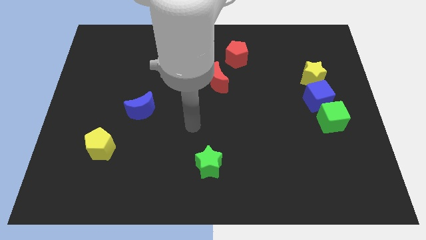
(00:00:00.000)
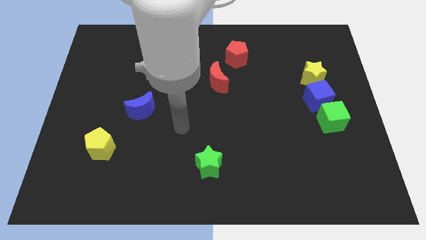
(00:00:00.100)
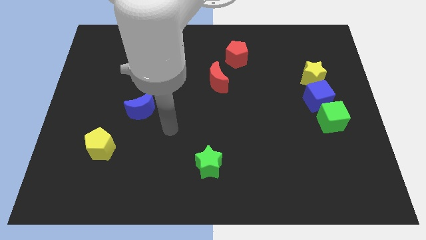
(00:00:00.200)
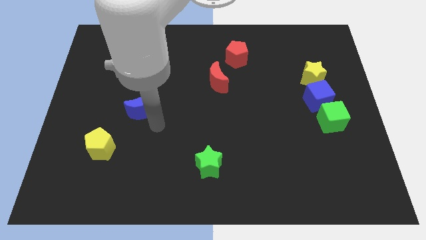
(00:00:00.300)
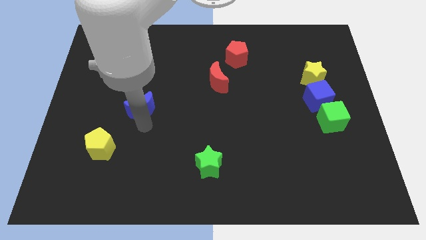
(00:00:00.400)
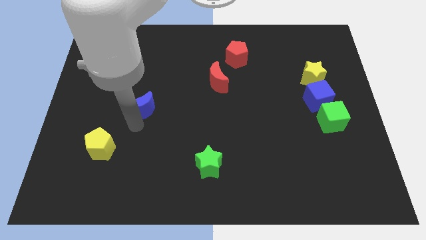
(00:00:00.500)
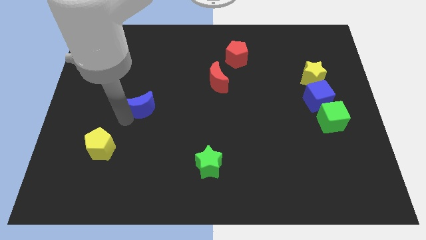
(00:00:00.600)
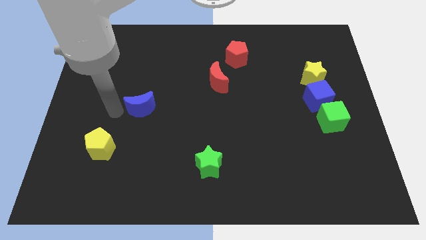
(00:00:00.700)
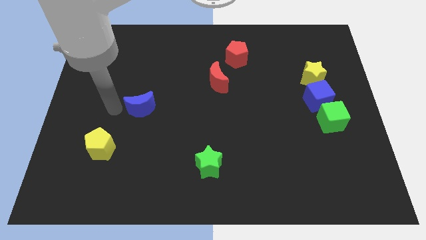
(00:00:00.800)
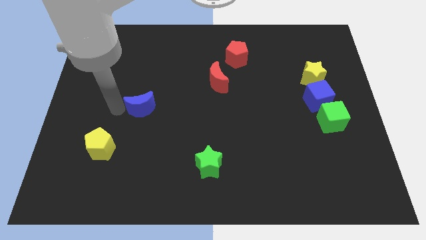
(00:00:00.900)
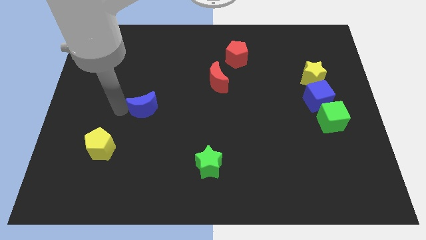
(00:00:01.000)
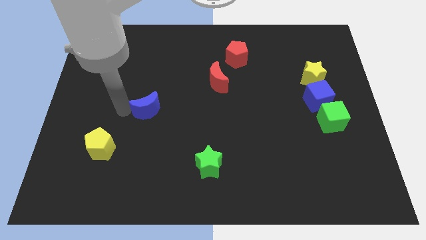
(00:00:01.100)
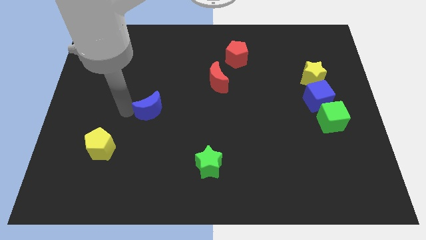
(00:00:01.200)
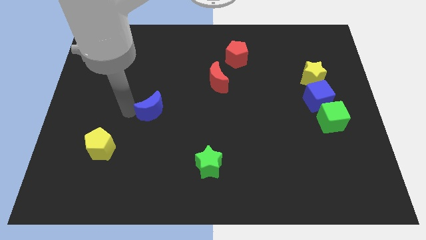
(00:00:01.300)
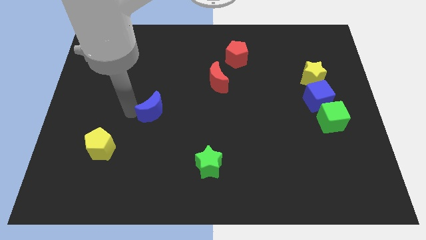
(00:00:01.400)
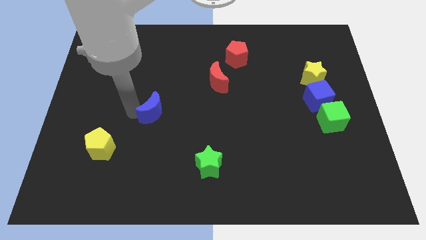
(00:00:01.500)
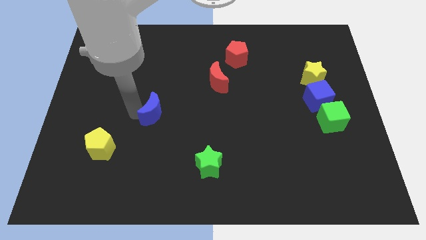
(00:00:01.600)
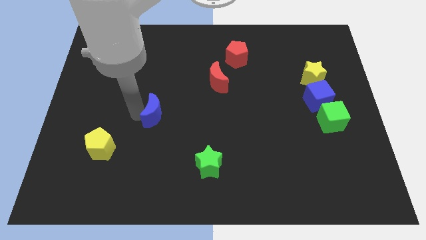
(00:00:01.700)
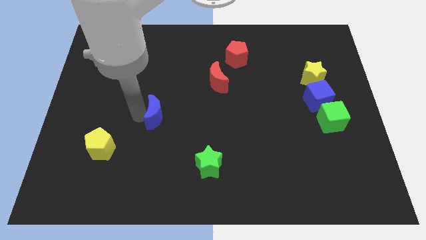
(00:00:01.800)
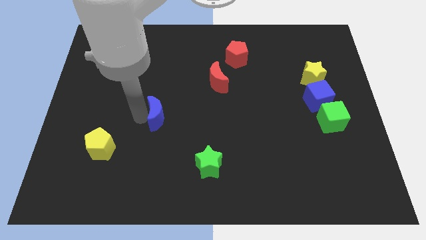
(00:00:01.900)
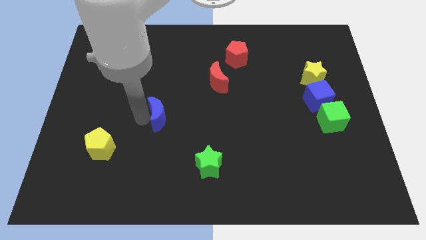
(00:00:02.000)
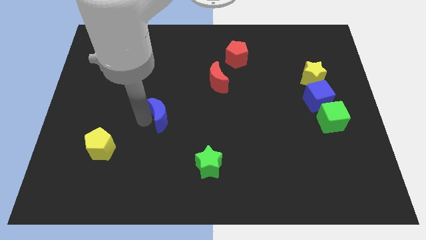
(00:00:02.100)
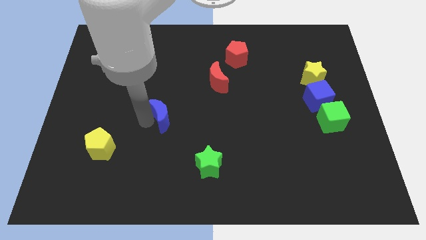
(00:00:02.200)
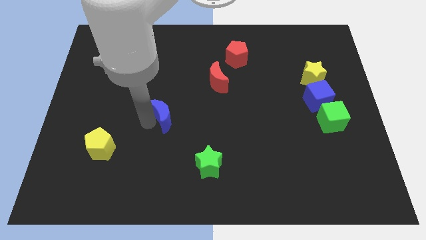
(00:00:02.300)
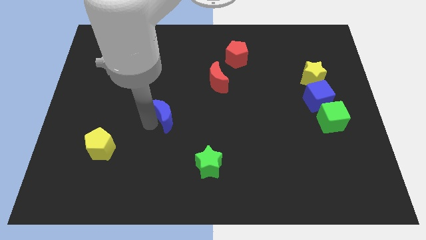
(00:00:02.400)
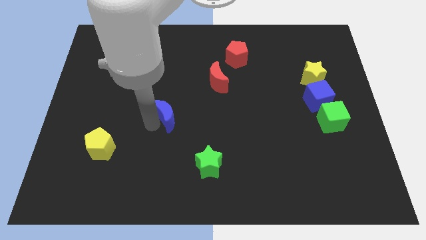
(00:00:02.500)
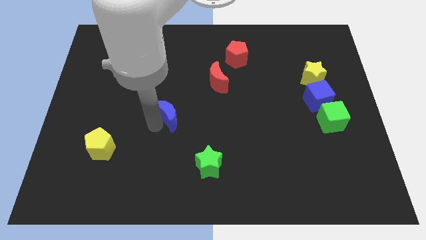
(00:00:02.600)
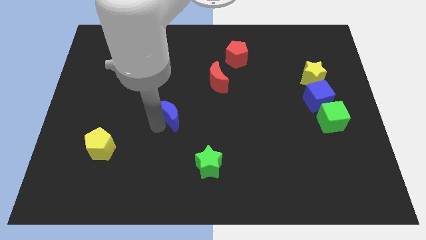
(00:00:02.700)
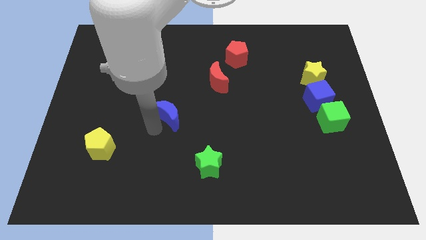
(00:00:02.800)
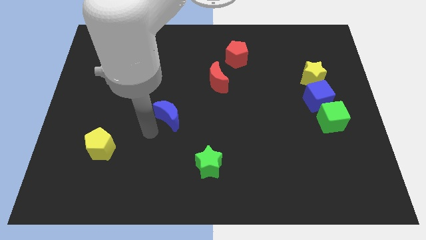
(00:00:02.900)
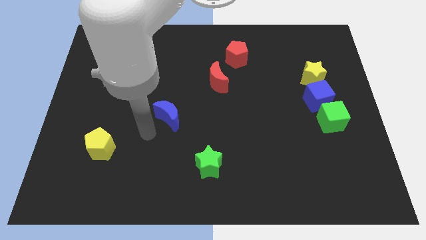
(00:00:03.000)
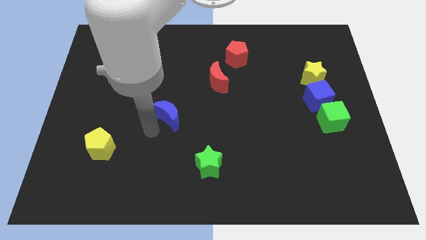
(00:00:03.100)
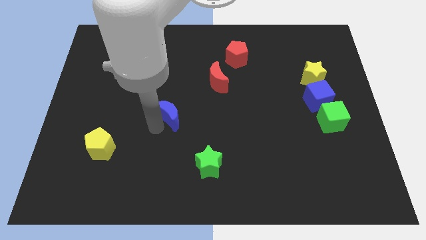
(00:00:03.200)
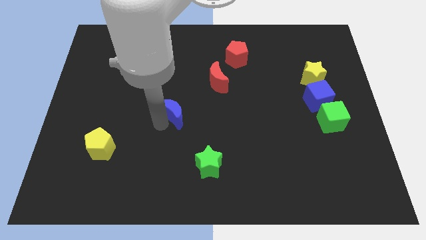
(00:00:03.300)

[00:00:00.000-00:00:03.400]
slide the blue moon a little bit right

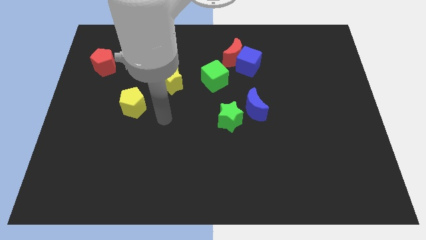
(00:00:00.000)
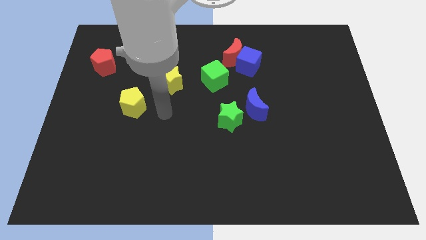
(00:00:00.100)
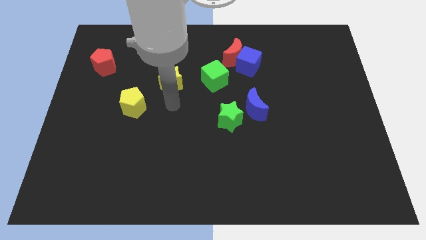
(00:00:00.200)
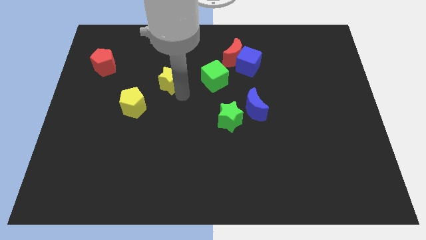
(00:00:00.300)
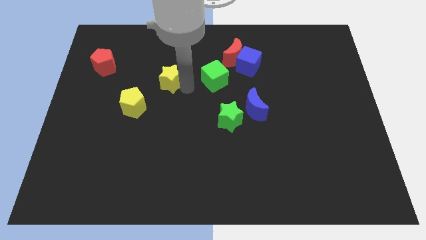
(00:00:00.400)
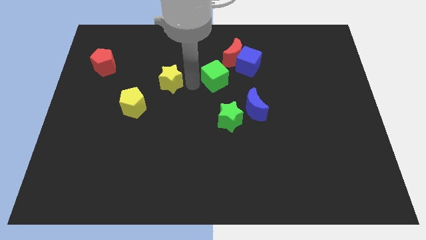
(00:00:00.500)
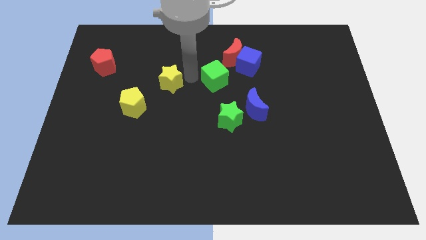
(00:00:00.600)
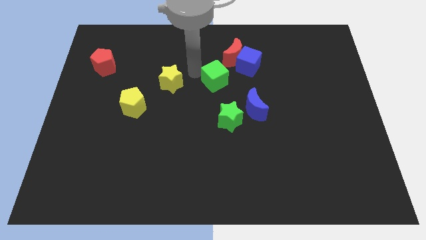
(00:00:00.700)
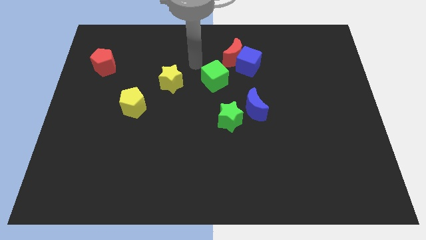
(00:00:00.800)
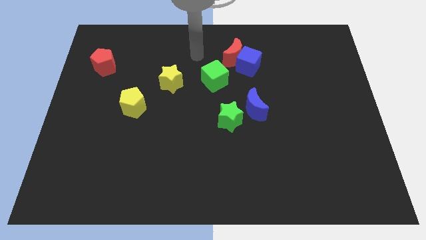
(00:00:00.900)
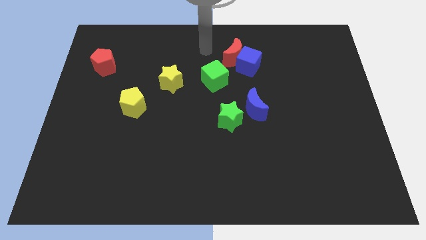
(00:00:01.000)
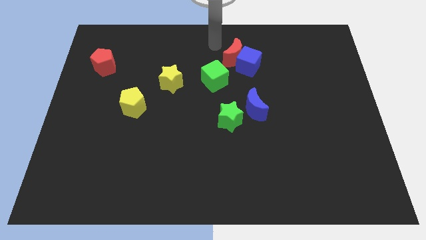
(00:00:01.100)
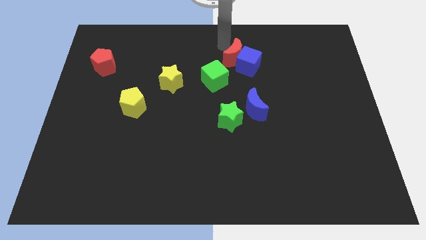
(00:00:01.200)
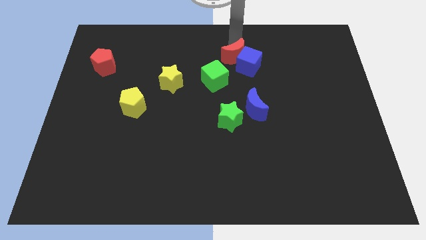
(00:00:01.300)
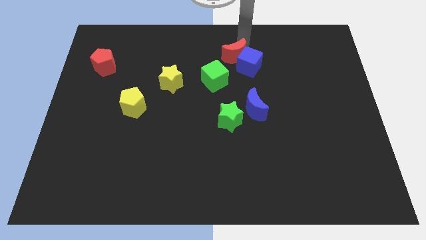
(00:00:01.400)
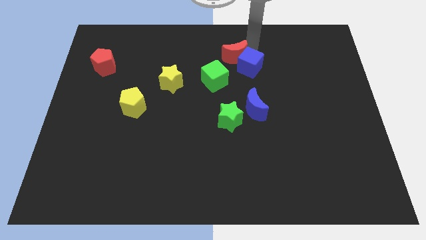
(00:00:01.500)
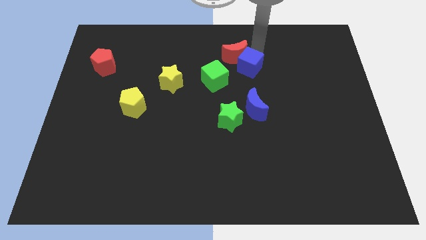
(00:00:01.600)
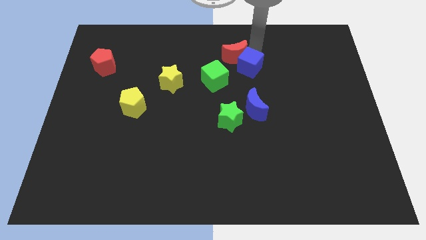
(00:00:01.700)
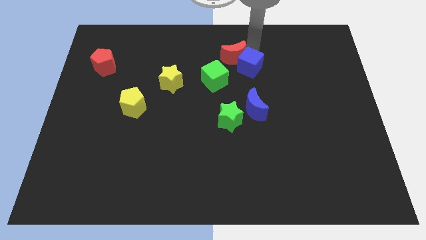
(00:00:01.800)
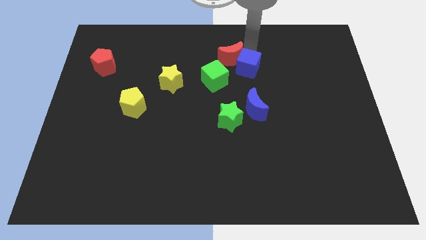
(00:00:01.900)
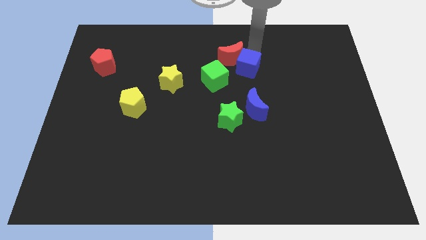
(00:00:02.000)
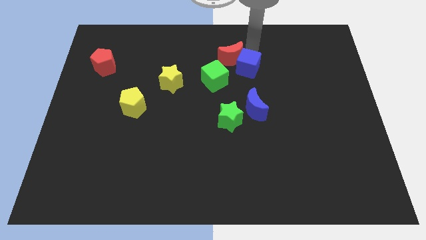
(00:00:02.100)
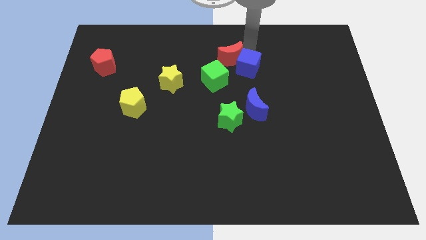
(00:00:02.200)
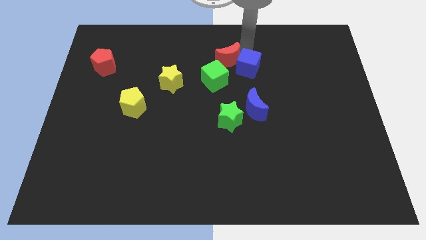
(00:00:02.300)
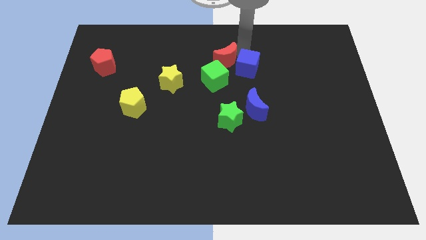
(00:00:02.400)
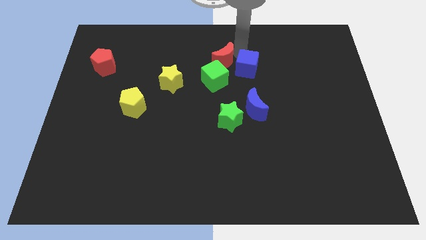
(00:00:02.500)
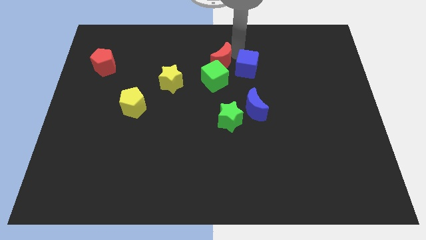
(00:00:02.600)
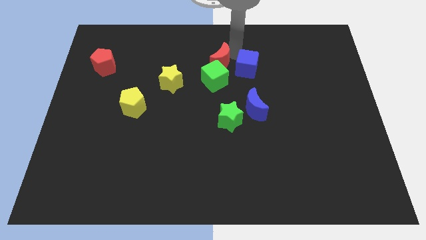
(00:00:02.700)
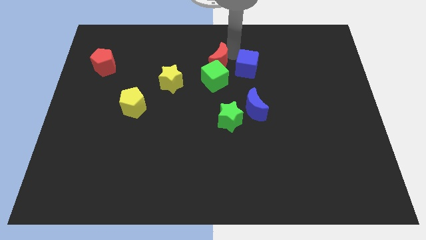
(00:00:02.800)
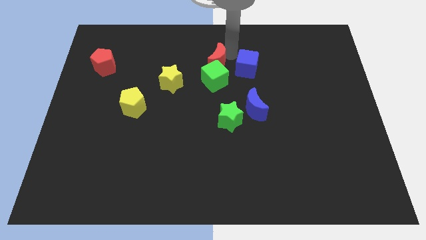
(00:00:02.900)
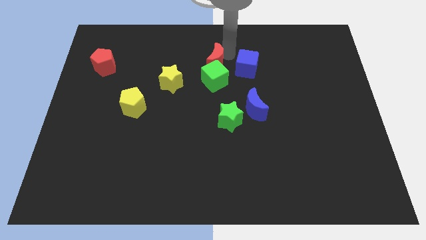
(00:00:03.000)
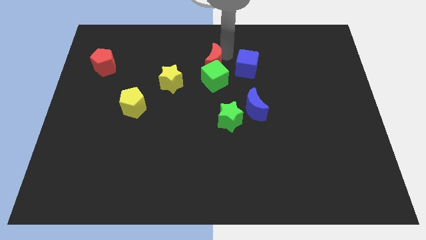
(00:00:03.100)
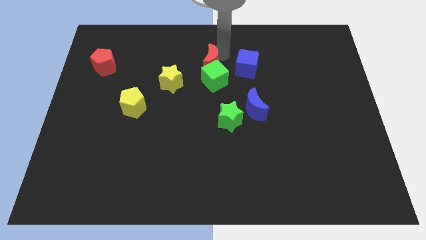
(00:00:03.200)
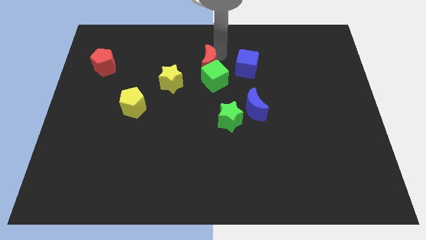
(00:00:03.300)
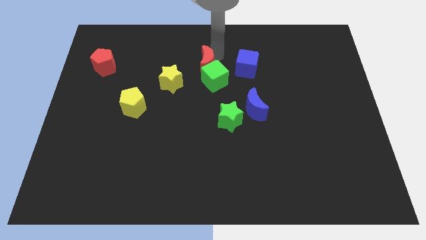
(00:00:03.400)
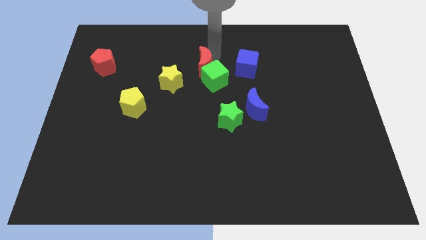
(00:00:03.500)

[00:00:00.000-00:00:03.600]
slide the red moon down and then to the left slightly

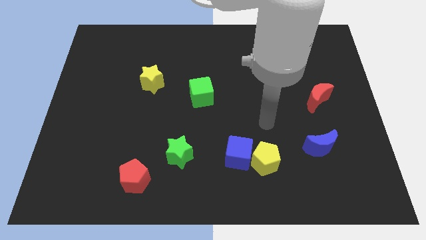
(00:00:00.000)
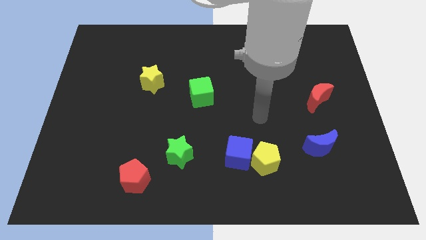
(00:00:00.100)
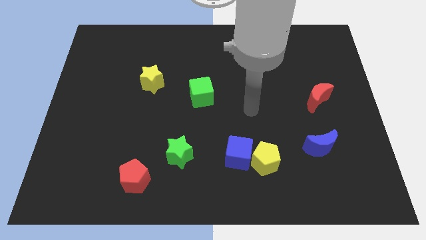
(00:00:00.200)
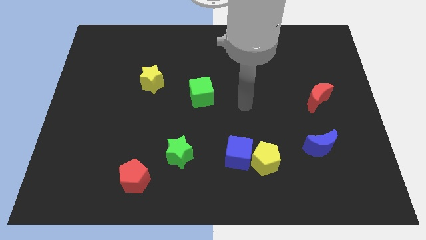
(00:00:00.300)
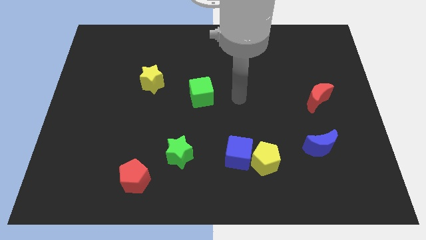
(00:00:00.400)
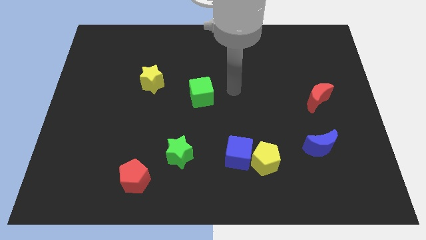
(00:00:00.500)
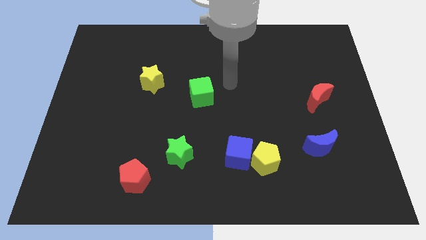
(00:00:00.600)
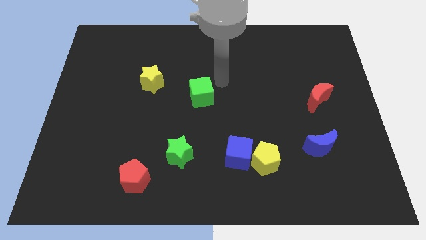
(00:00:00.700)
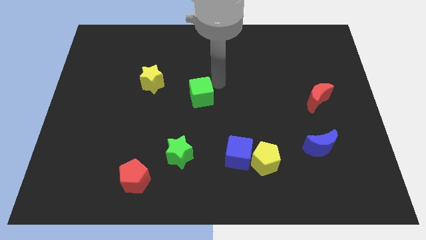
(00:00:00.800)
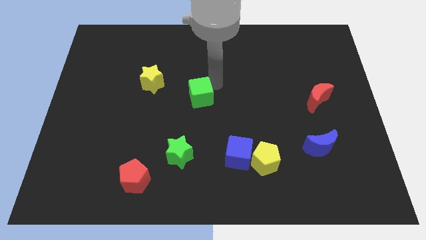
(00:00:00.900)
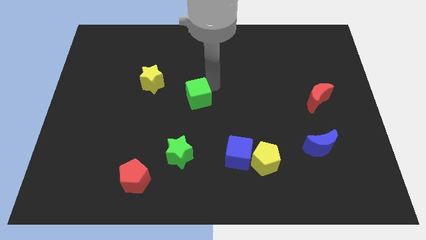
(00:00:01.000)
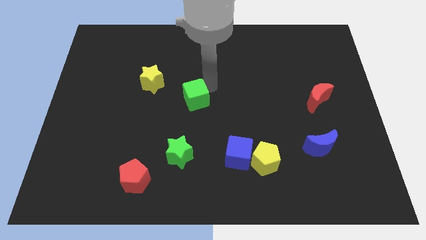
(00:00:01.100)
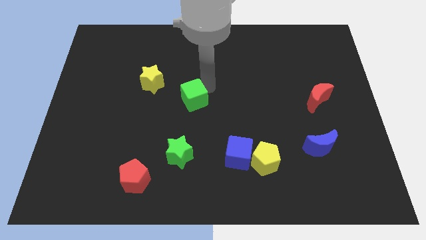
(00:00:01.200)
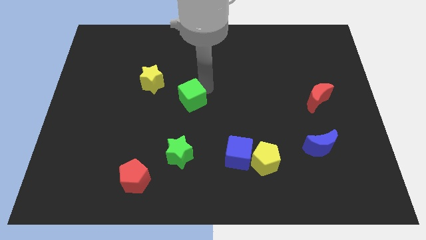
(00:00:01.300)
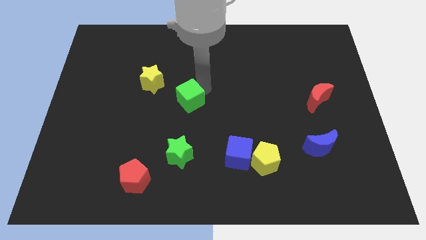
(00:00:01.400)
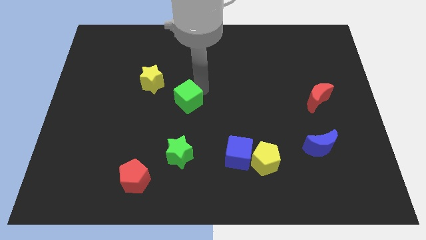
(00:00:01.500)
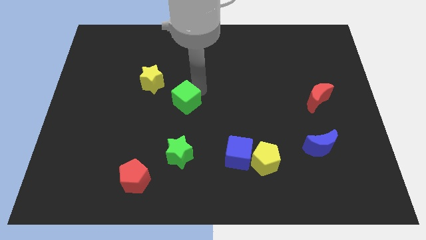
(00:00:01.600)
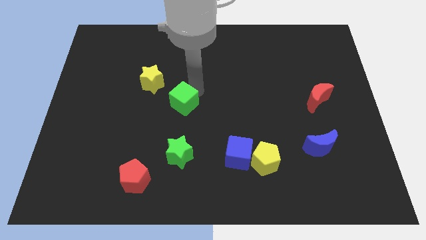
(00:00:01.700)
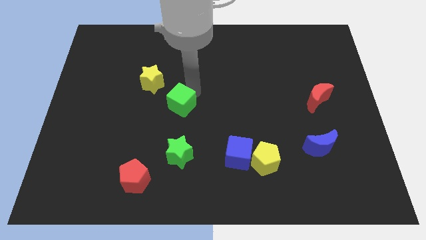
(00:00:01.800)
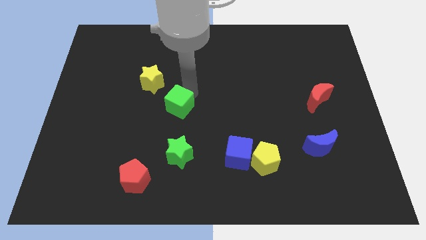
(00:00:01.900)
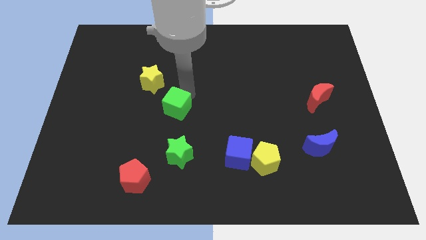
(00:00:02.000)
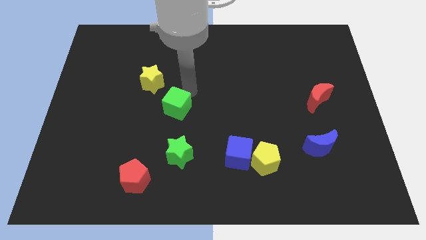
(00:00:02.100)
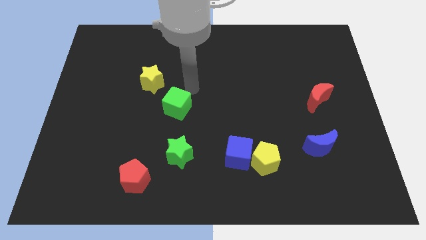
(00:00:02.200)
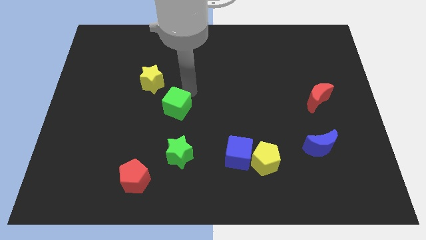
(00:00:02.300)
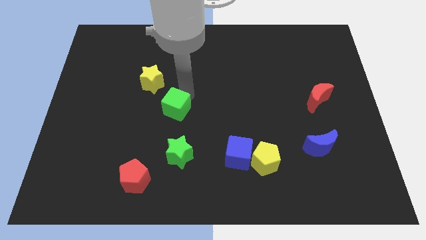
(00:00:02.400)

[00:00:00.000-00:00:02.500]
slightly push the green cube down and then to the left
